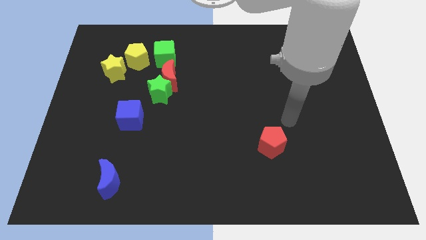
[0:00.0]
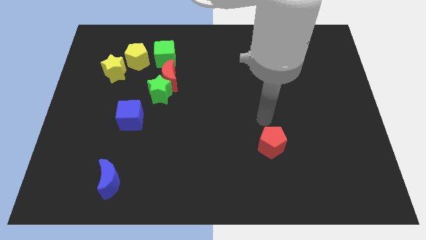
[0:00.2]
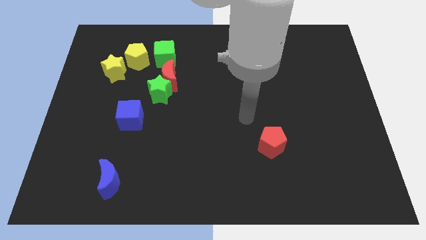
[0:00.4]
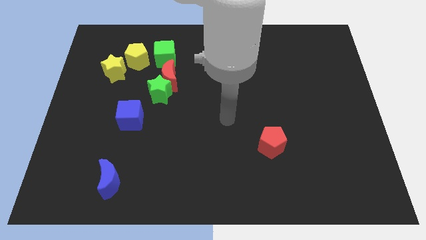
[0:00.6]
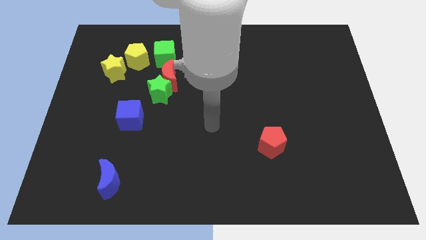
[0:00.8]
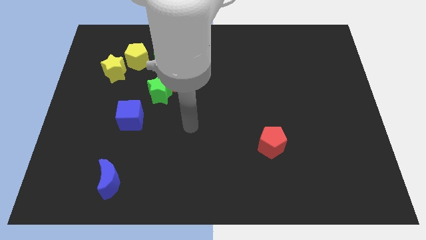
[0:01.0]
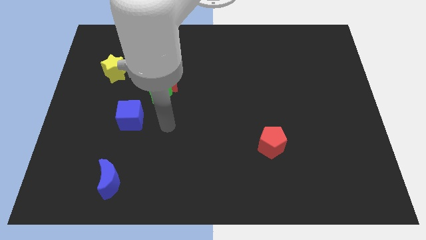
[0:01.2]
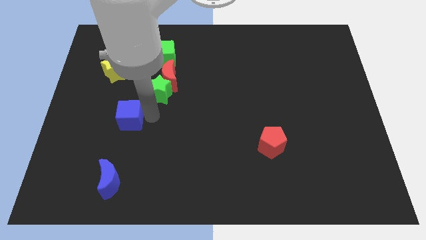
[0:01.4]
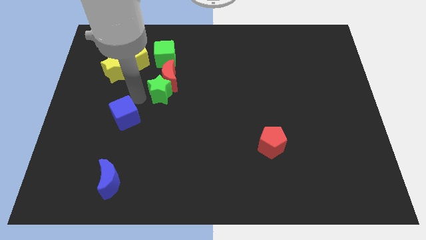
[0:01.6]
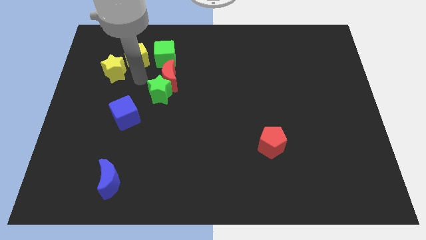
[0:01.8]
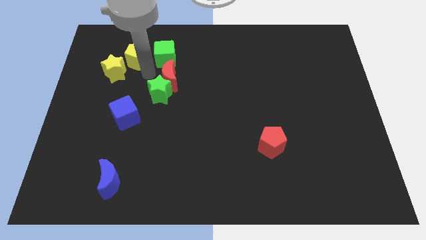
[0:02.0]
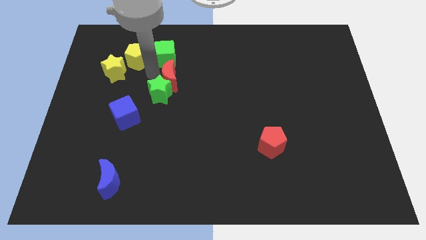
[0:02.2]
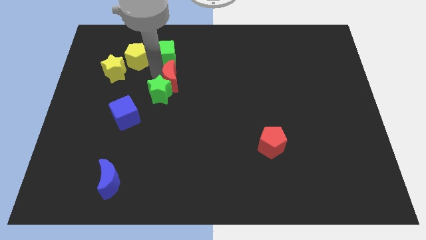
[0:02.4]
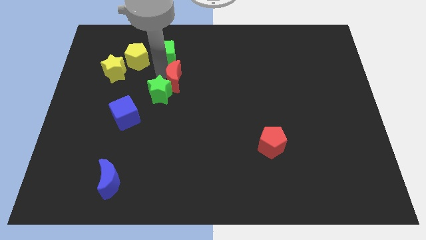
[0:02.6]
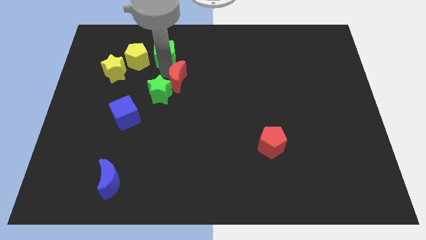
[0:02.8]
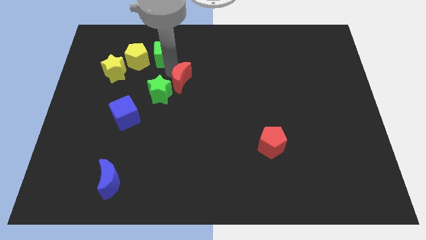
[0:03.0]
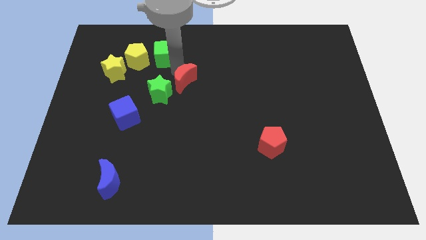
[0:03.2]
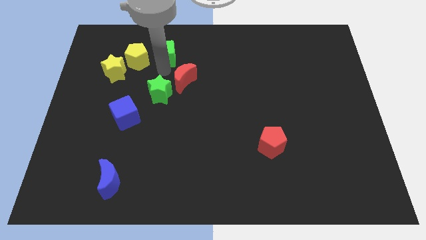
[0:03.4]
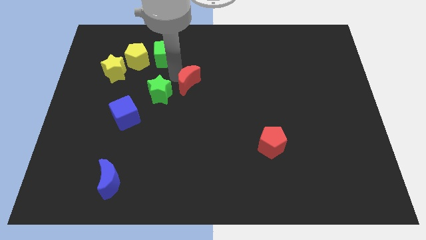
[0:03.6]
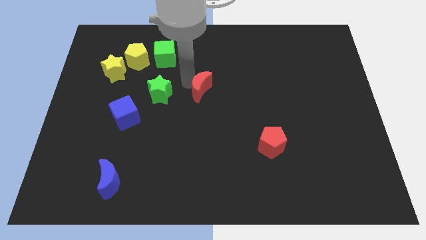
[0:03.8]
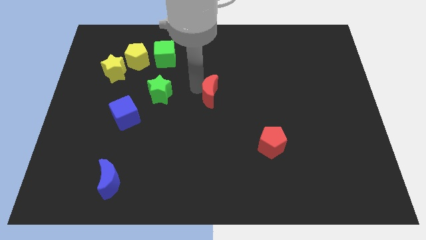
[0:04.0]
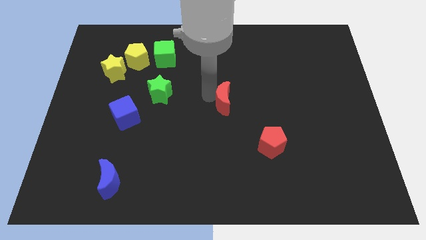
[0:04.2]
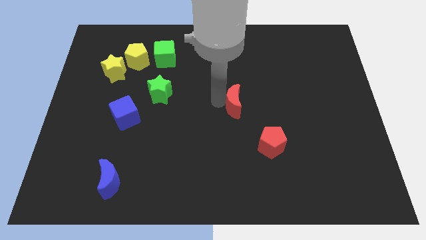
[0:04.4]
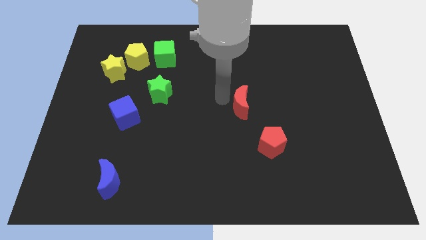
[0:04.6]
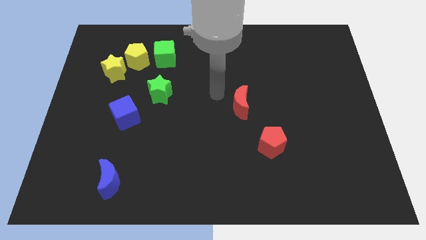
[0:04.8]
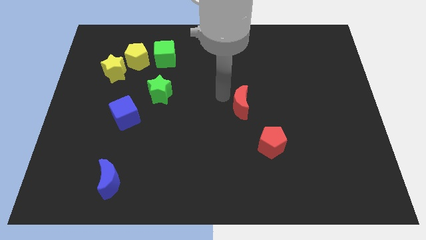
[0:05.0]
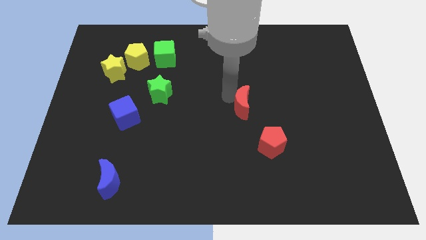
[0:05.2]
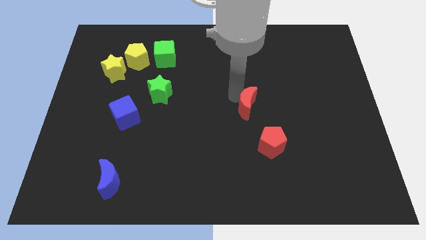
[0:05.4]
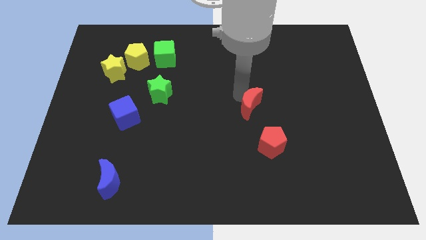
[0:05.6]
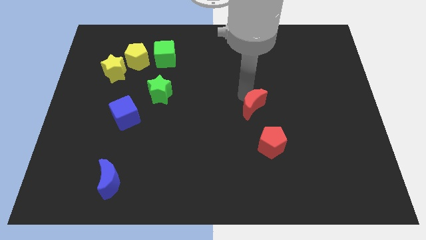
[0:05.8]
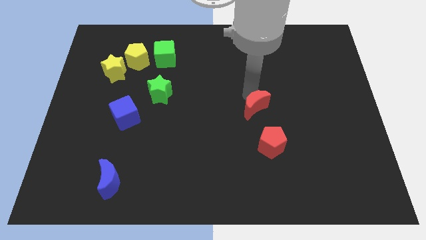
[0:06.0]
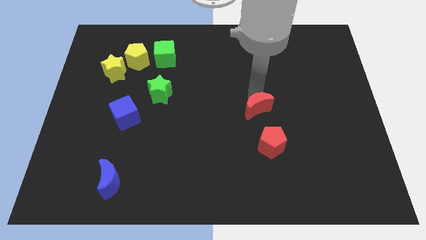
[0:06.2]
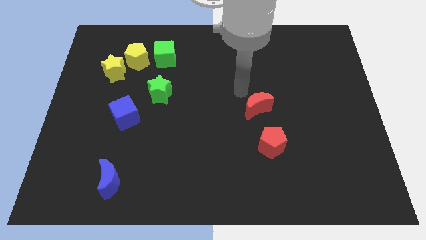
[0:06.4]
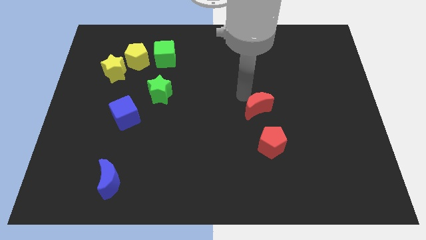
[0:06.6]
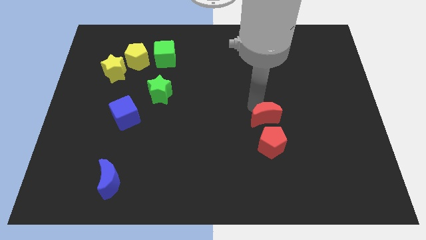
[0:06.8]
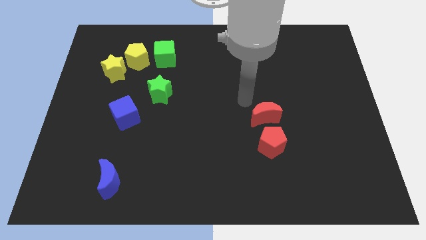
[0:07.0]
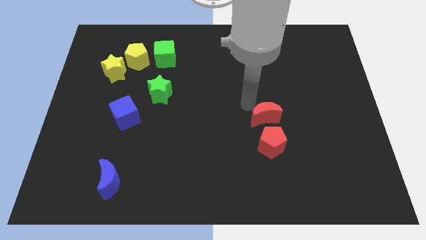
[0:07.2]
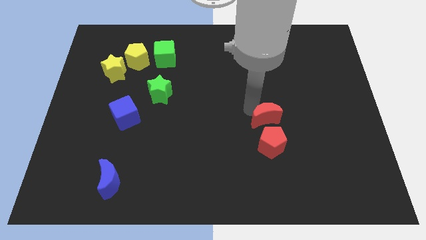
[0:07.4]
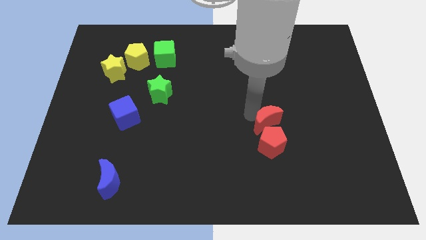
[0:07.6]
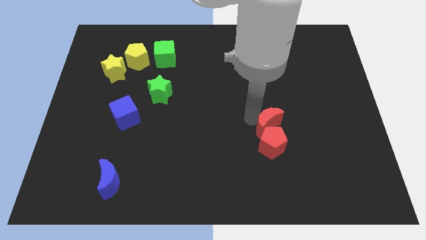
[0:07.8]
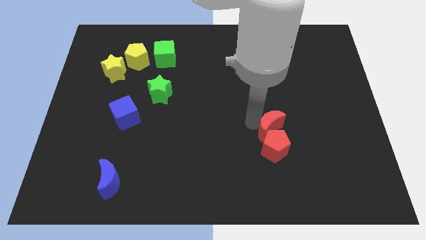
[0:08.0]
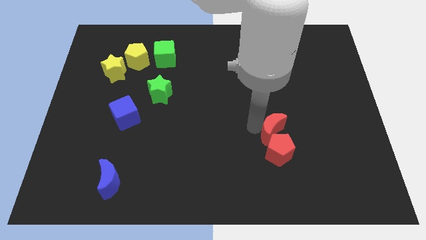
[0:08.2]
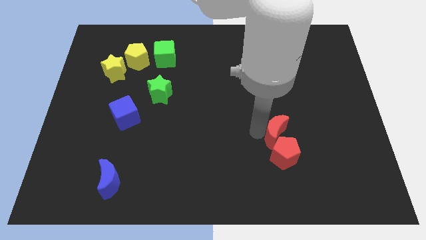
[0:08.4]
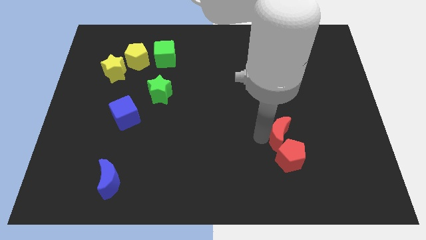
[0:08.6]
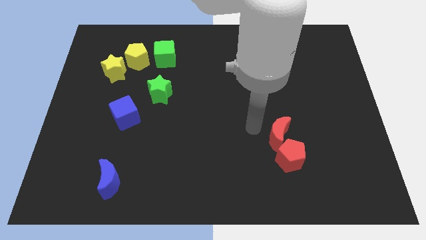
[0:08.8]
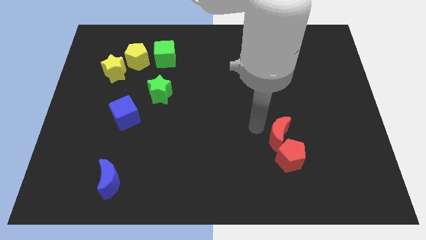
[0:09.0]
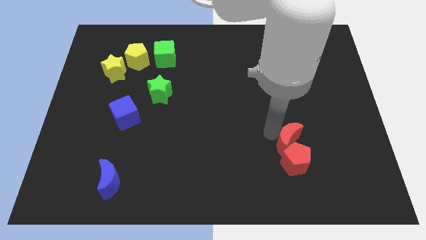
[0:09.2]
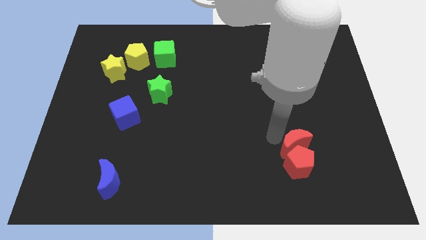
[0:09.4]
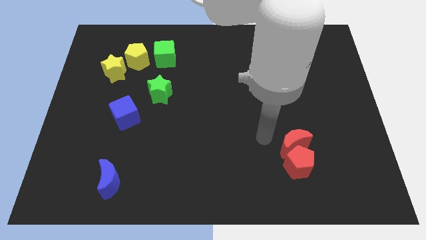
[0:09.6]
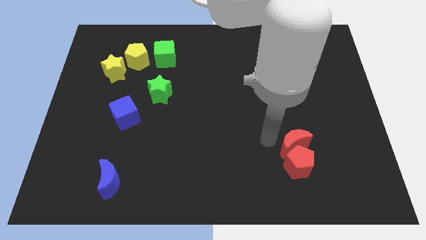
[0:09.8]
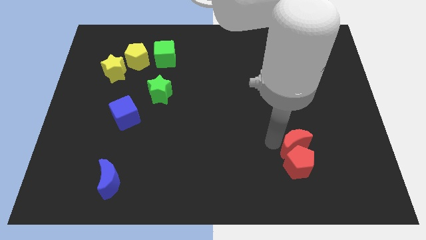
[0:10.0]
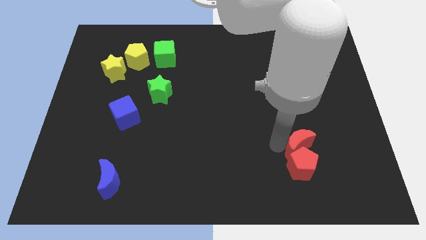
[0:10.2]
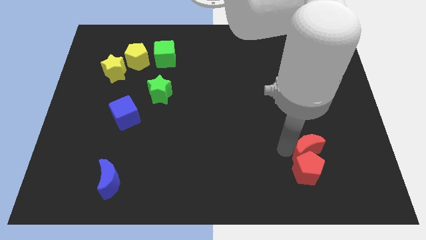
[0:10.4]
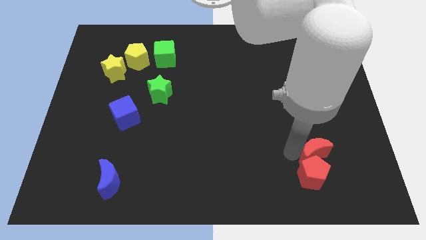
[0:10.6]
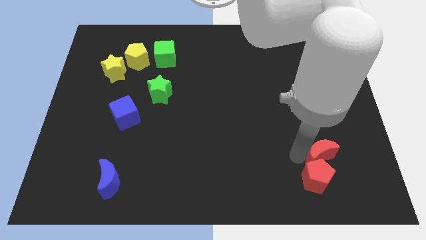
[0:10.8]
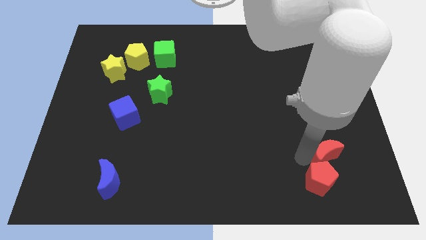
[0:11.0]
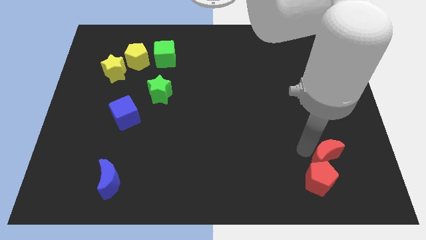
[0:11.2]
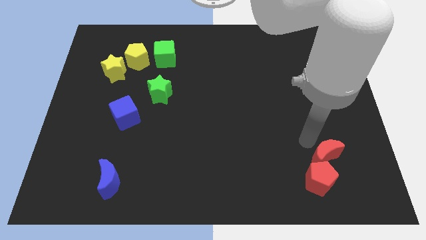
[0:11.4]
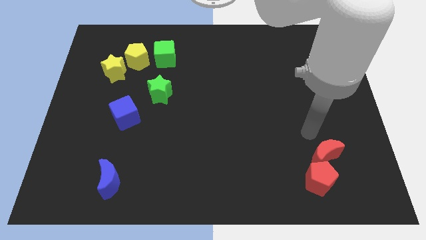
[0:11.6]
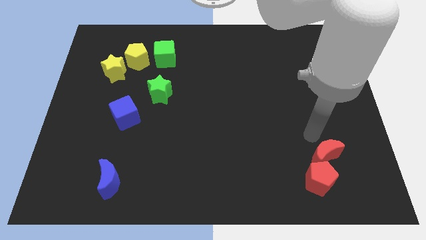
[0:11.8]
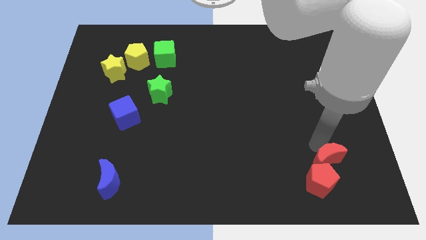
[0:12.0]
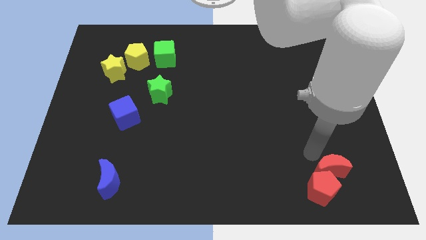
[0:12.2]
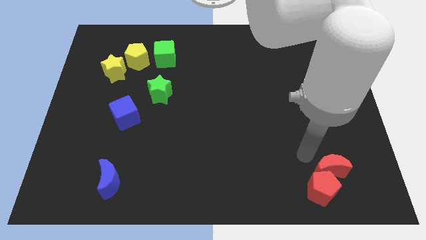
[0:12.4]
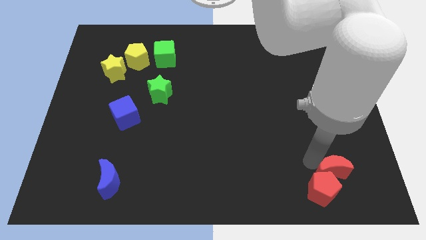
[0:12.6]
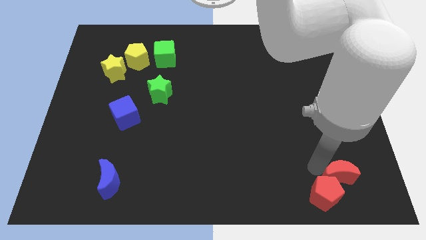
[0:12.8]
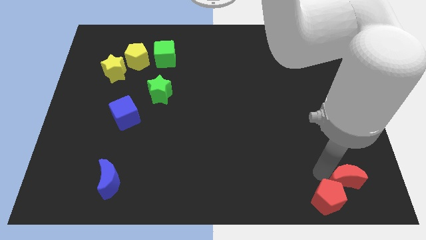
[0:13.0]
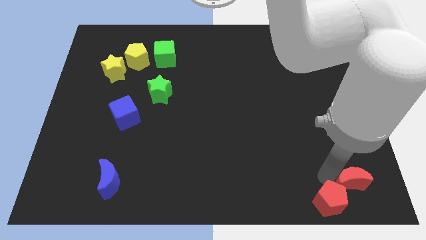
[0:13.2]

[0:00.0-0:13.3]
push the red moon to the bottom right
